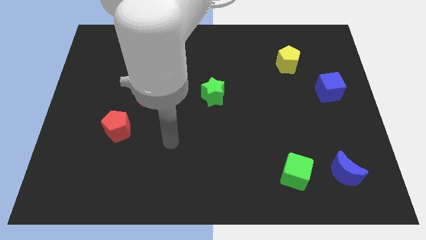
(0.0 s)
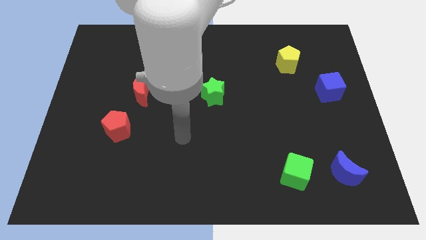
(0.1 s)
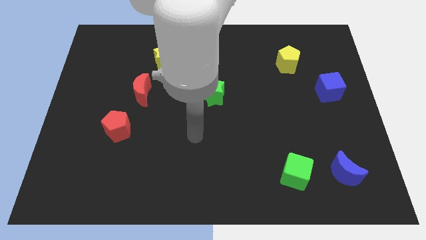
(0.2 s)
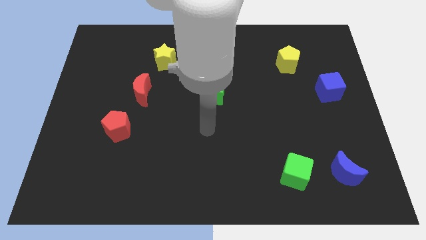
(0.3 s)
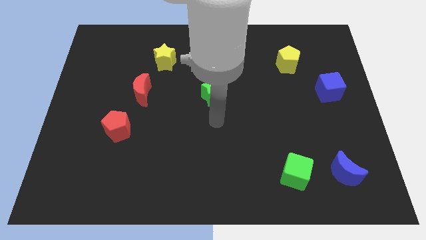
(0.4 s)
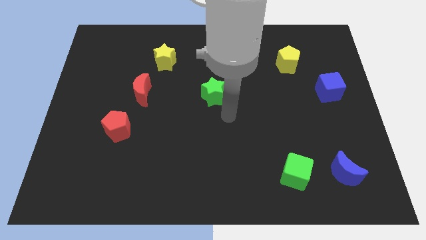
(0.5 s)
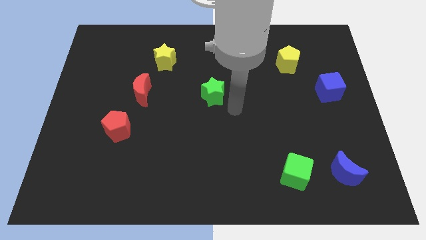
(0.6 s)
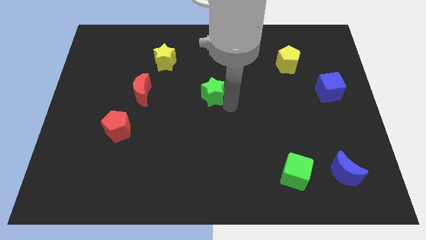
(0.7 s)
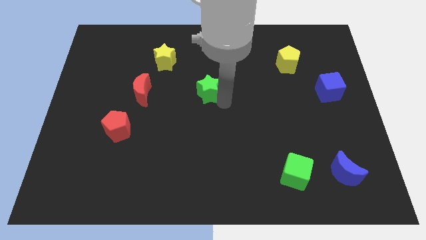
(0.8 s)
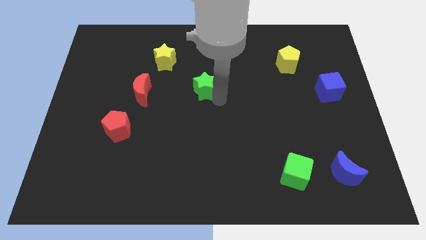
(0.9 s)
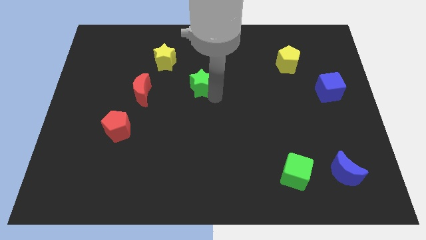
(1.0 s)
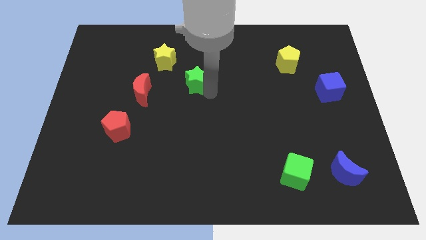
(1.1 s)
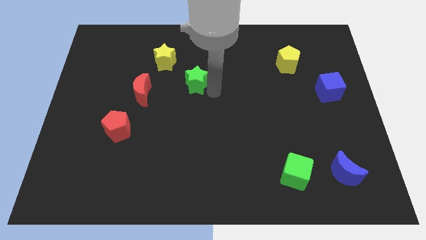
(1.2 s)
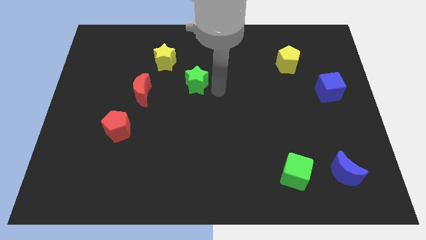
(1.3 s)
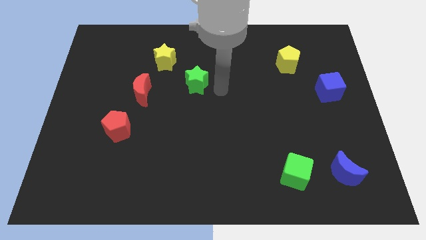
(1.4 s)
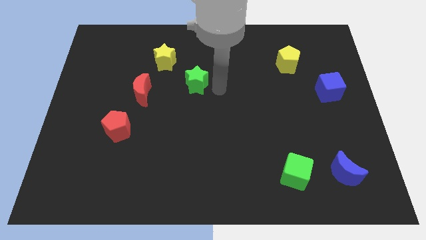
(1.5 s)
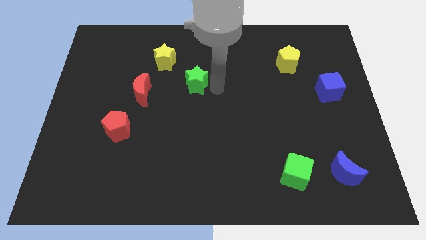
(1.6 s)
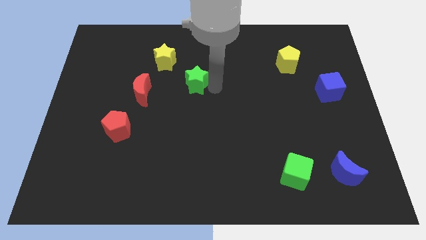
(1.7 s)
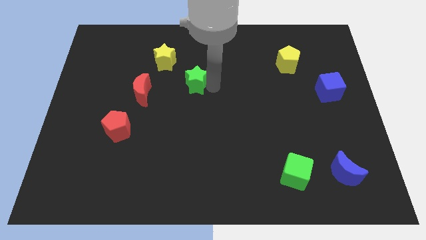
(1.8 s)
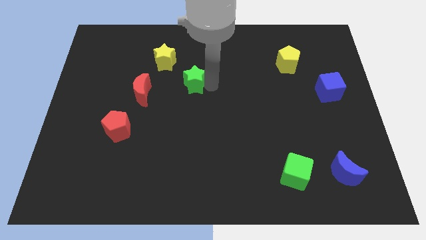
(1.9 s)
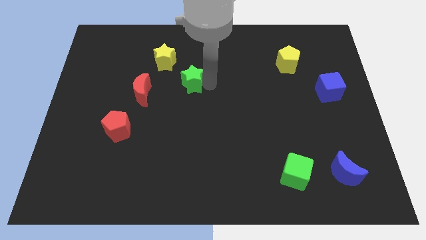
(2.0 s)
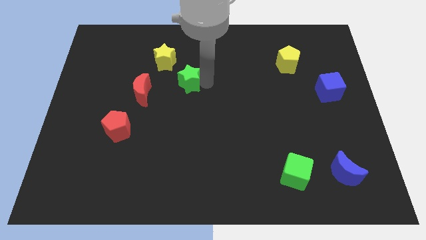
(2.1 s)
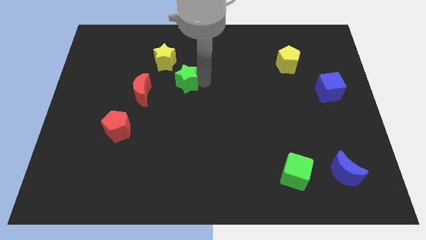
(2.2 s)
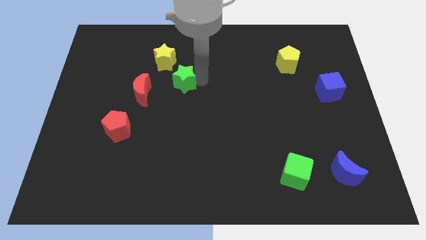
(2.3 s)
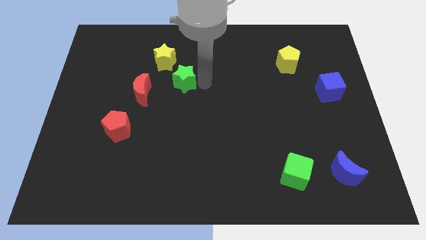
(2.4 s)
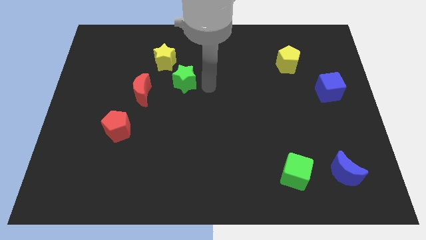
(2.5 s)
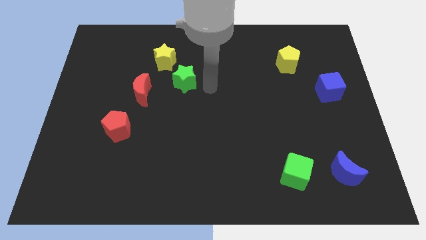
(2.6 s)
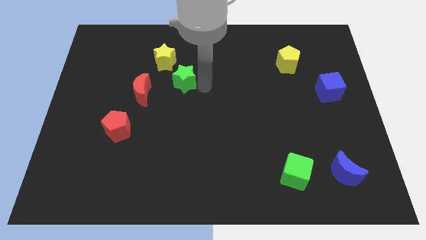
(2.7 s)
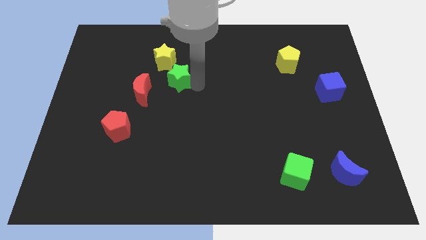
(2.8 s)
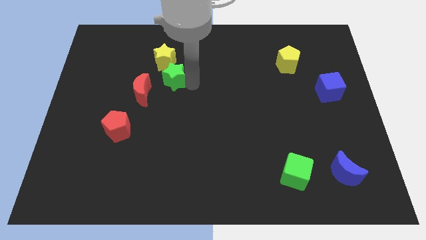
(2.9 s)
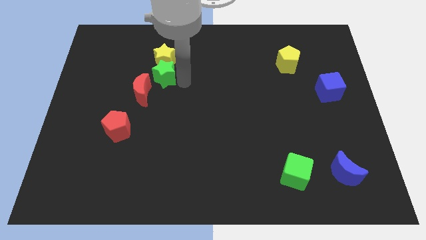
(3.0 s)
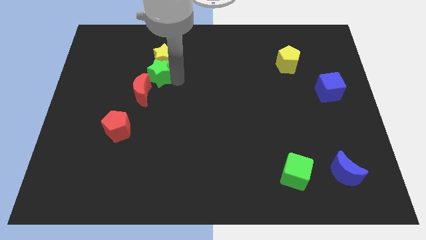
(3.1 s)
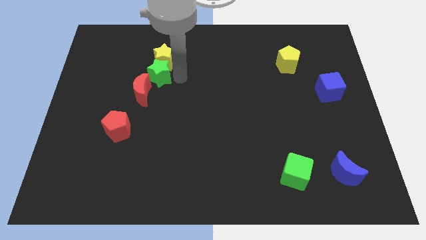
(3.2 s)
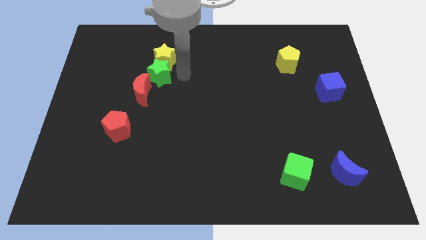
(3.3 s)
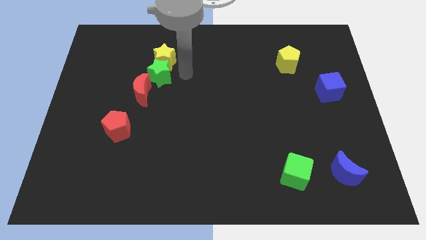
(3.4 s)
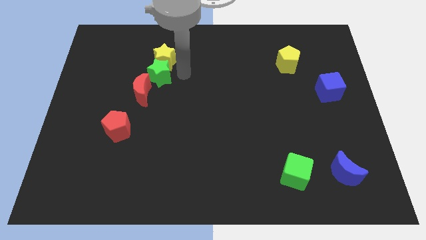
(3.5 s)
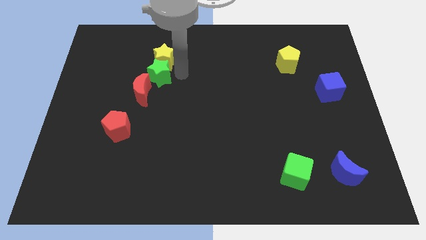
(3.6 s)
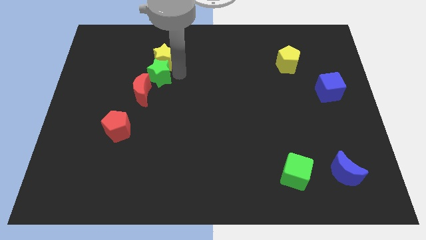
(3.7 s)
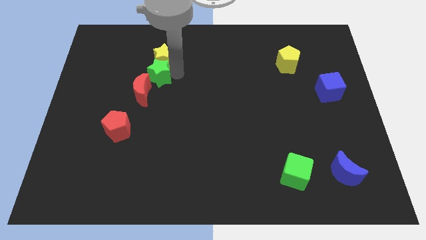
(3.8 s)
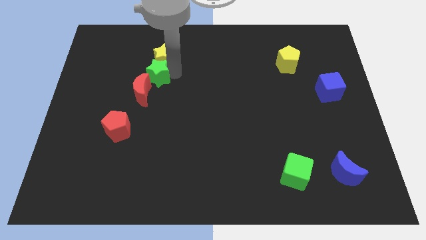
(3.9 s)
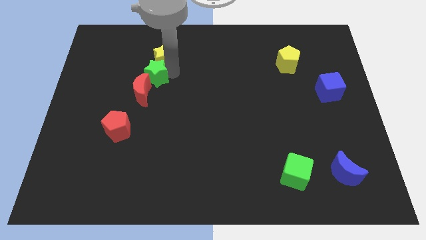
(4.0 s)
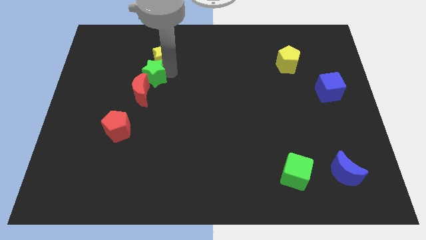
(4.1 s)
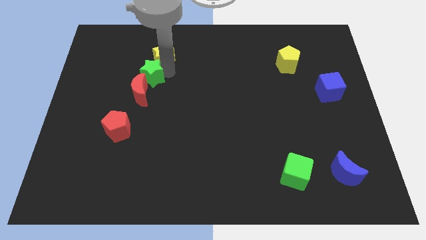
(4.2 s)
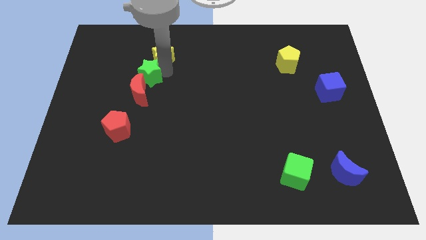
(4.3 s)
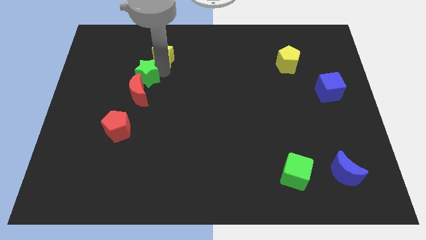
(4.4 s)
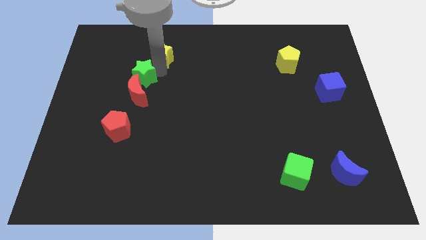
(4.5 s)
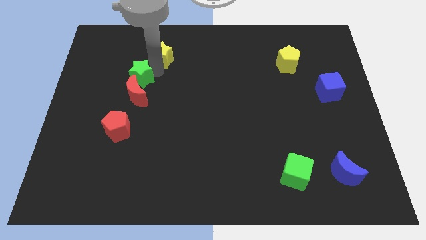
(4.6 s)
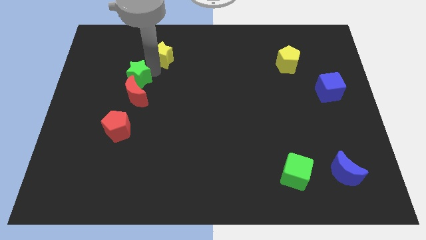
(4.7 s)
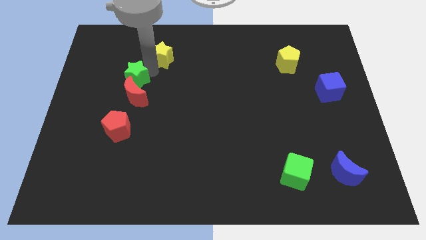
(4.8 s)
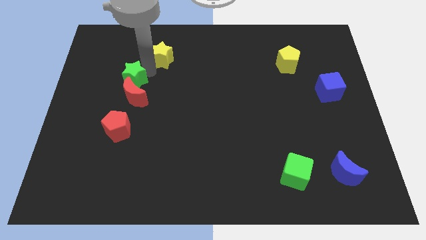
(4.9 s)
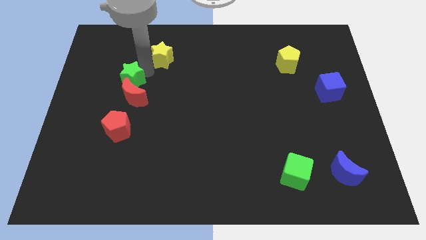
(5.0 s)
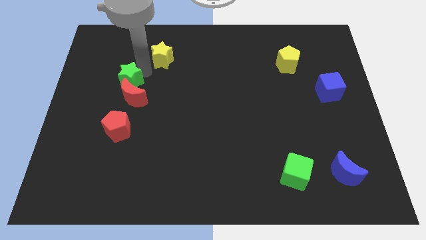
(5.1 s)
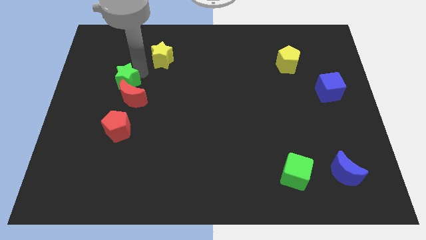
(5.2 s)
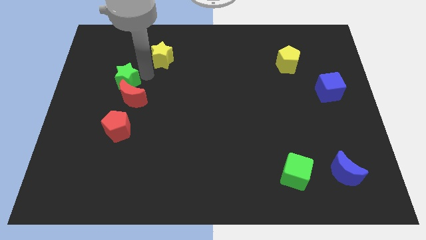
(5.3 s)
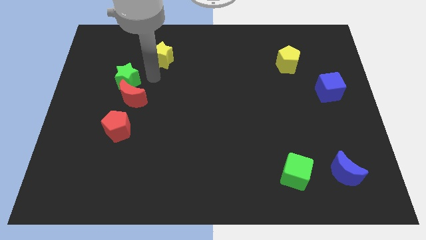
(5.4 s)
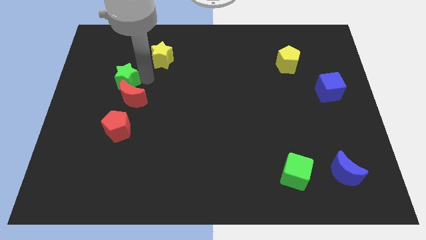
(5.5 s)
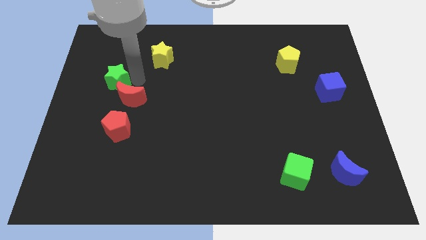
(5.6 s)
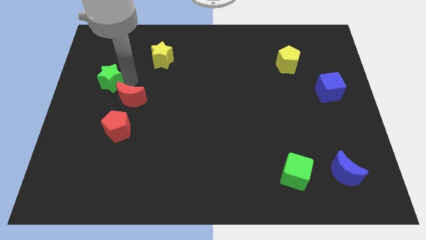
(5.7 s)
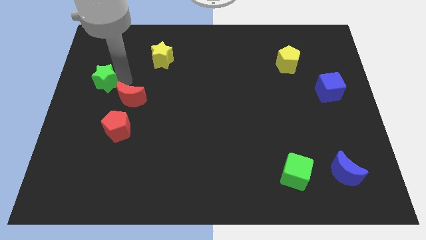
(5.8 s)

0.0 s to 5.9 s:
move the green star to the center left

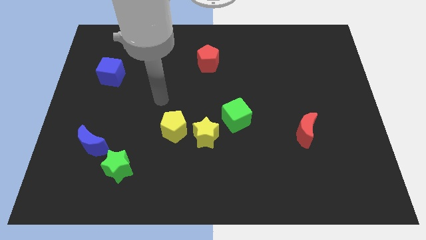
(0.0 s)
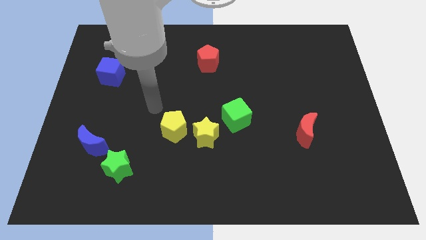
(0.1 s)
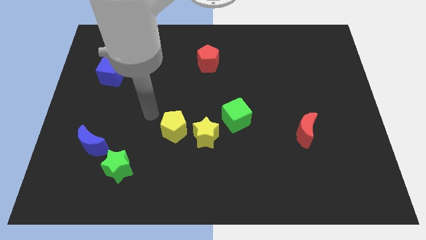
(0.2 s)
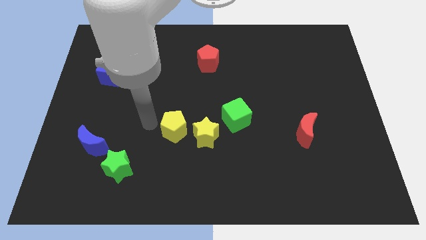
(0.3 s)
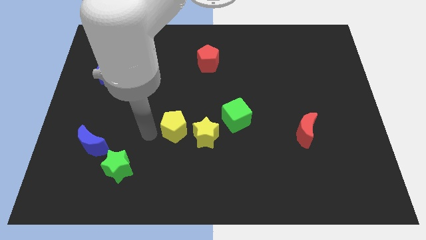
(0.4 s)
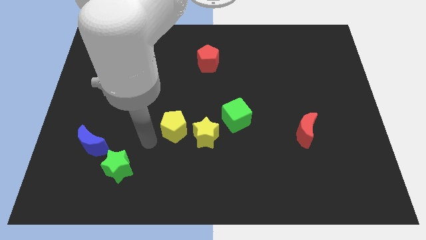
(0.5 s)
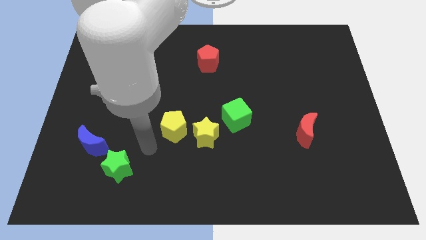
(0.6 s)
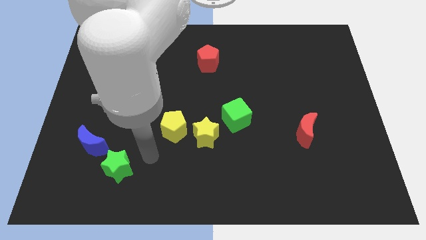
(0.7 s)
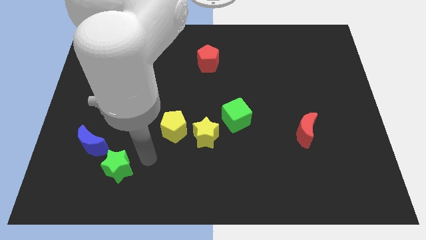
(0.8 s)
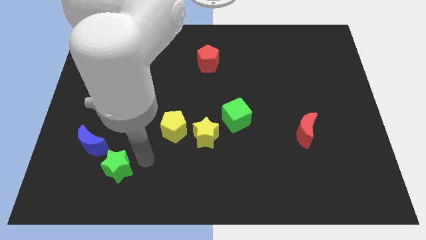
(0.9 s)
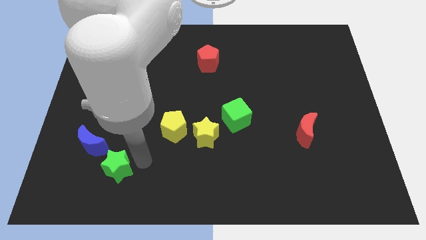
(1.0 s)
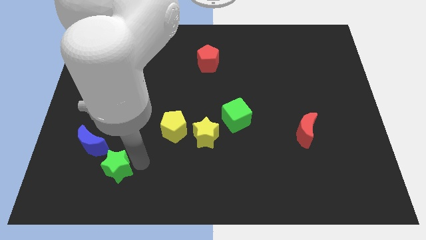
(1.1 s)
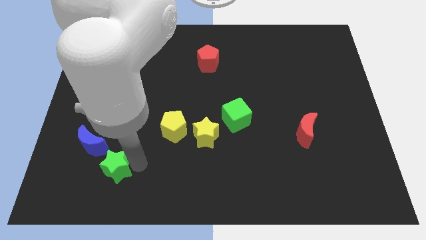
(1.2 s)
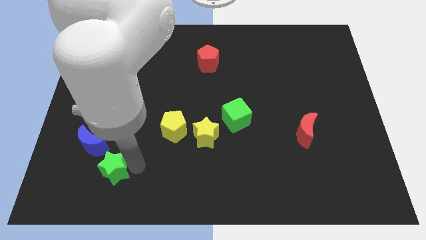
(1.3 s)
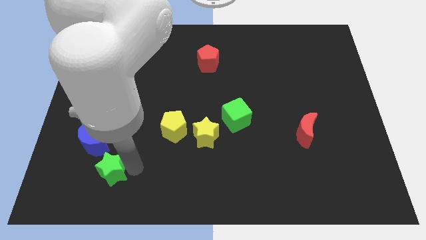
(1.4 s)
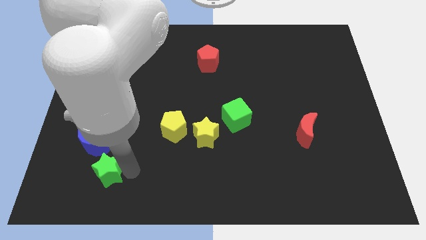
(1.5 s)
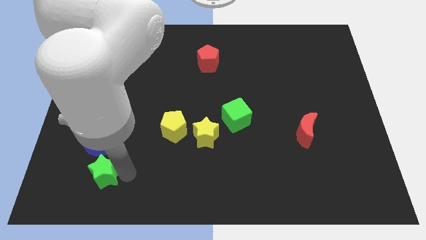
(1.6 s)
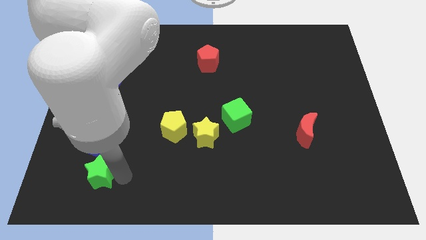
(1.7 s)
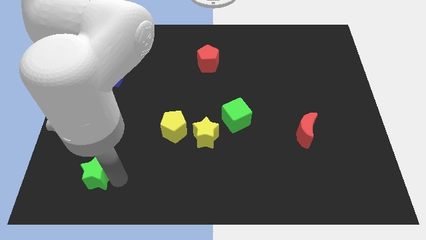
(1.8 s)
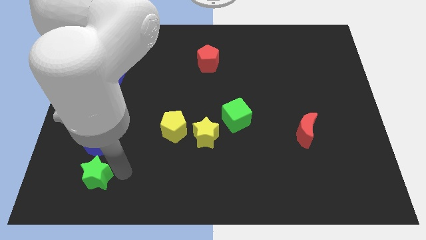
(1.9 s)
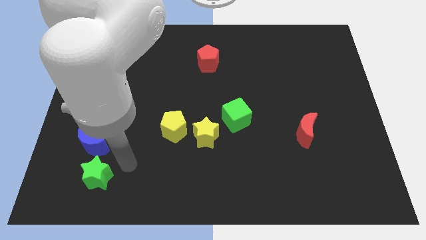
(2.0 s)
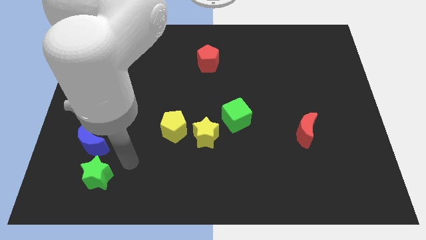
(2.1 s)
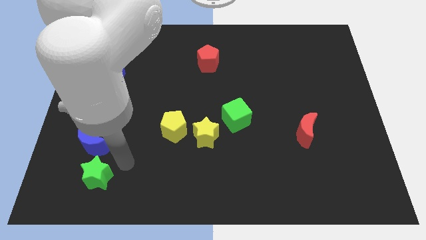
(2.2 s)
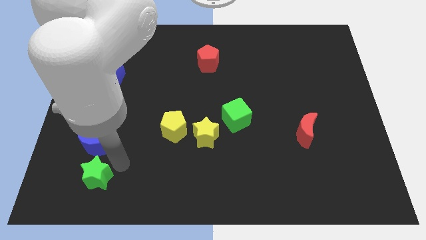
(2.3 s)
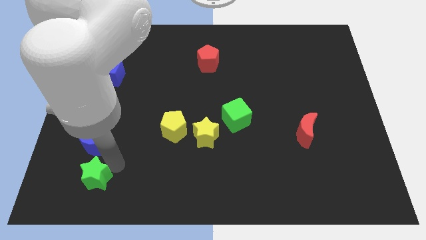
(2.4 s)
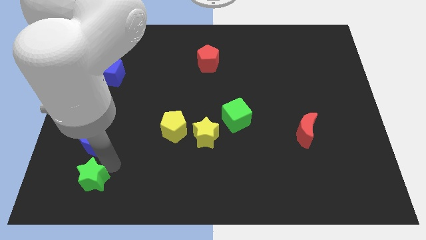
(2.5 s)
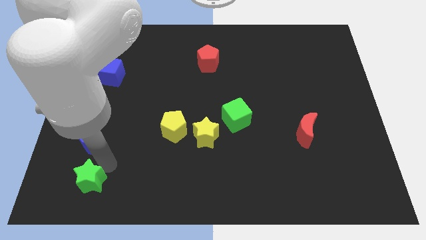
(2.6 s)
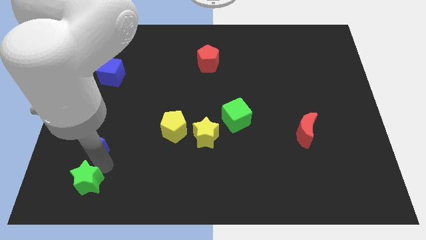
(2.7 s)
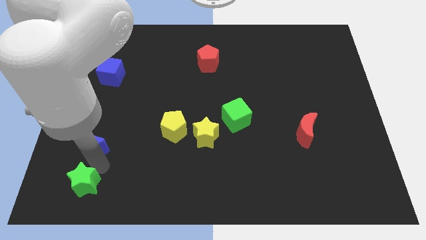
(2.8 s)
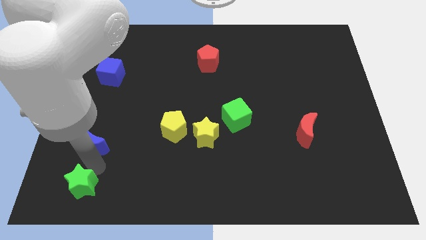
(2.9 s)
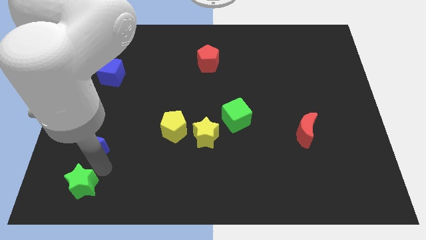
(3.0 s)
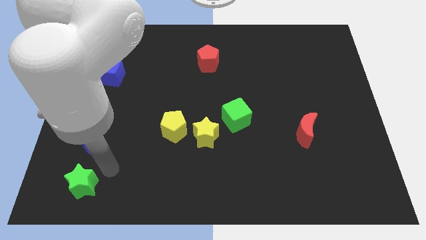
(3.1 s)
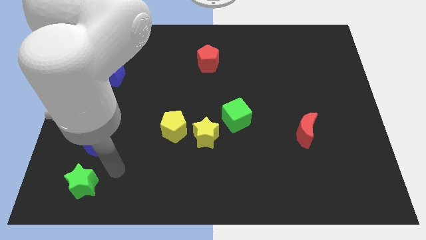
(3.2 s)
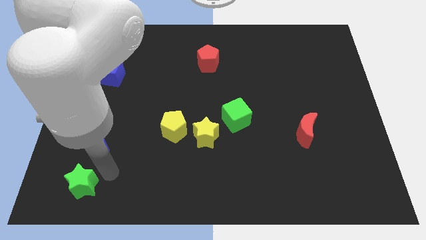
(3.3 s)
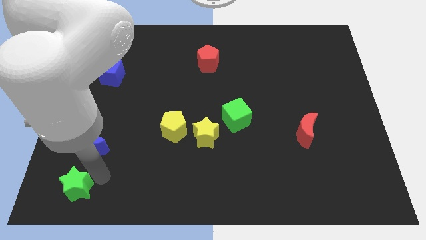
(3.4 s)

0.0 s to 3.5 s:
push the green star to the bottom left of the board
